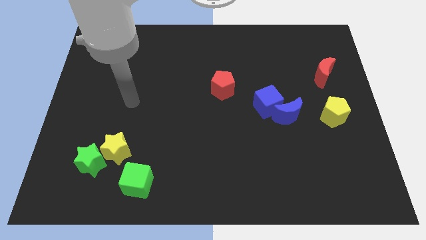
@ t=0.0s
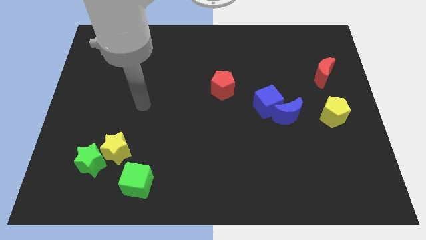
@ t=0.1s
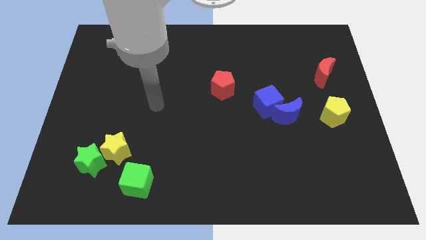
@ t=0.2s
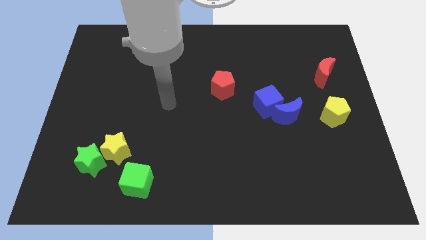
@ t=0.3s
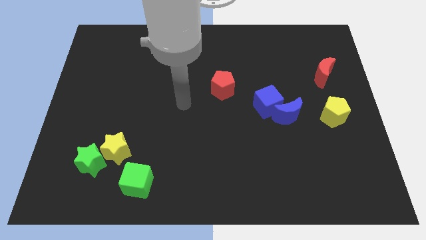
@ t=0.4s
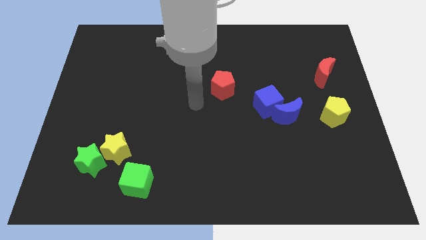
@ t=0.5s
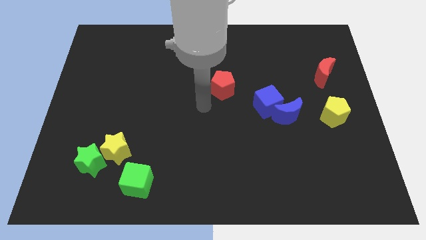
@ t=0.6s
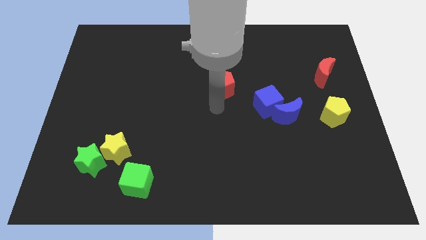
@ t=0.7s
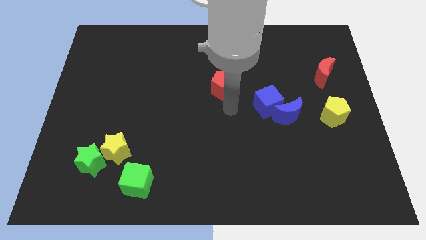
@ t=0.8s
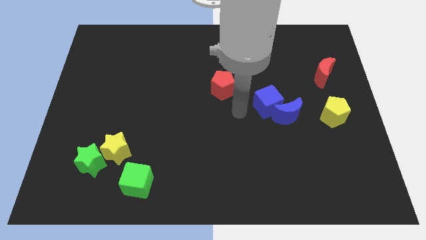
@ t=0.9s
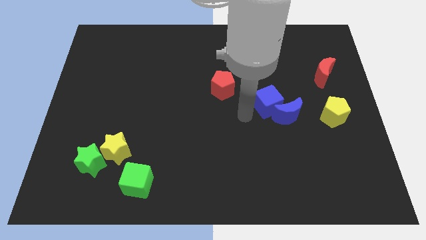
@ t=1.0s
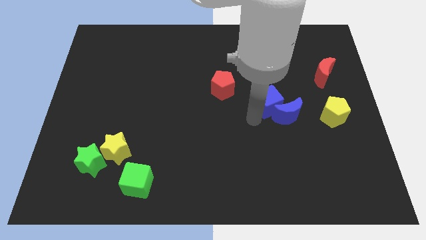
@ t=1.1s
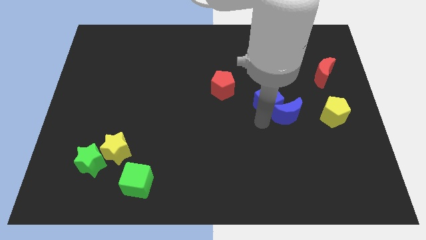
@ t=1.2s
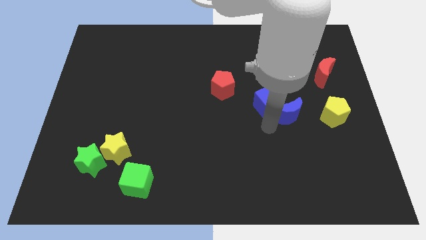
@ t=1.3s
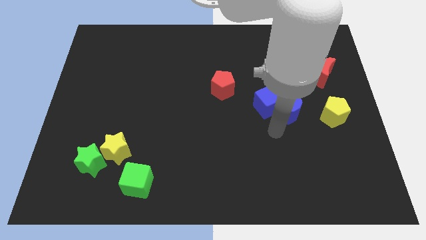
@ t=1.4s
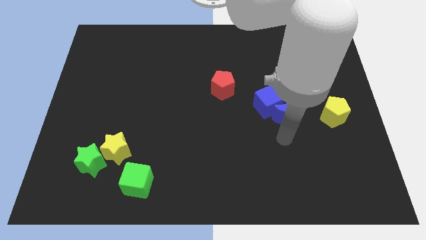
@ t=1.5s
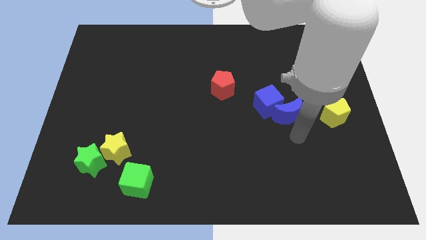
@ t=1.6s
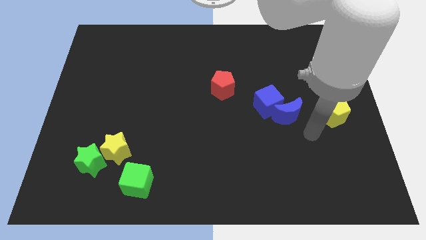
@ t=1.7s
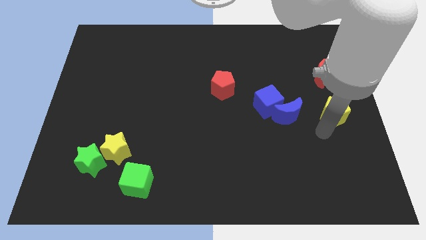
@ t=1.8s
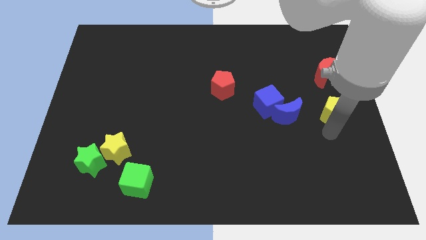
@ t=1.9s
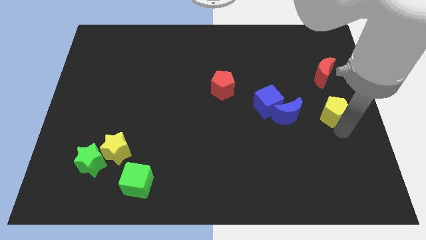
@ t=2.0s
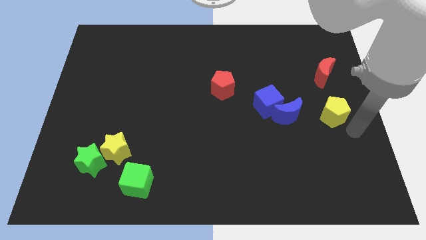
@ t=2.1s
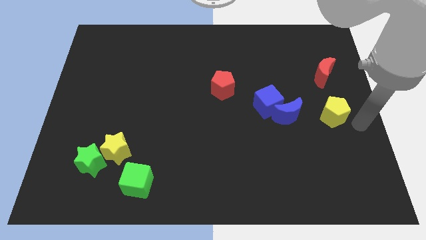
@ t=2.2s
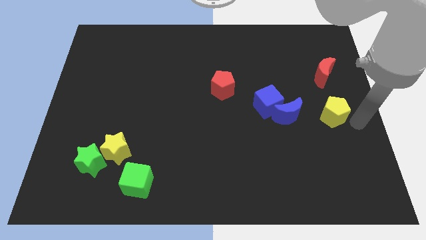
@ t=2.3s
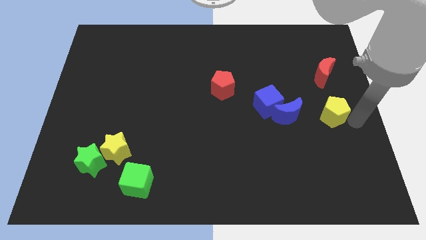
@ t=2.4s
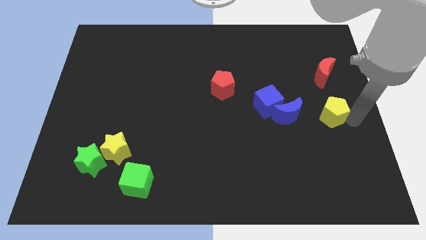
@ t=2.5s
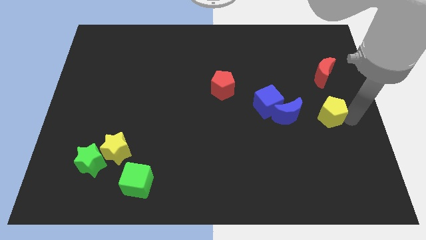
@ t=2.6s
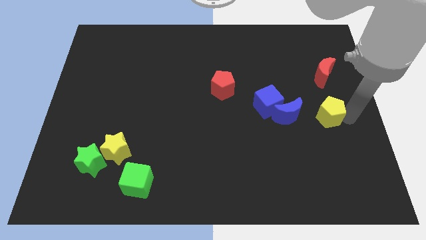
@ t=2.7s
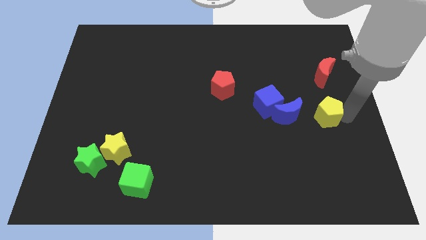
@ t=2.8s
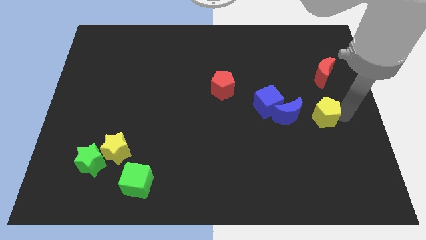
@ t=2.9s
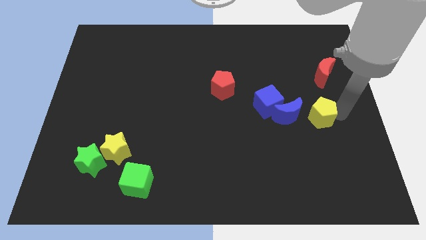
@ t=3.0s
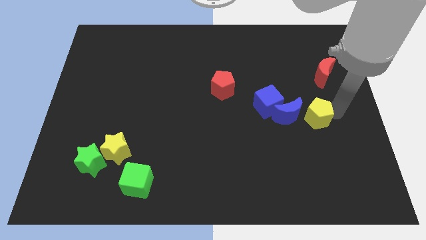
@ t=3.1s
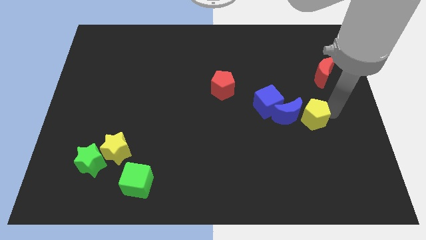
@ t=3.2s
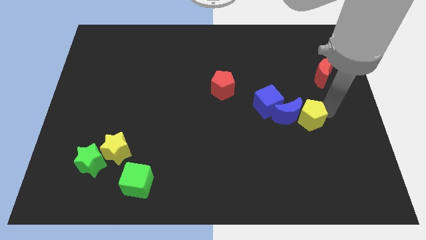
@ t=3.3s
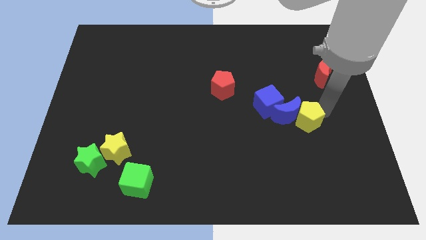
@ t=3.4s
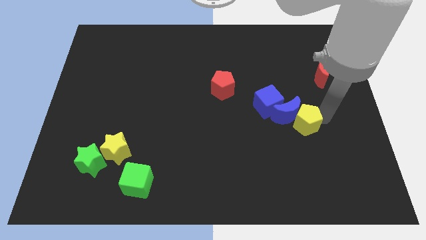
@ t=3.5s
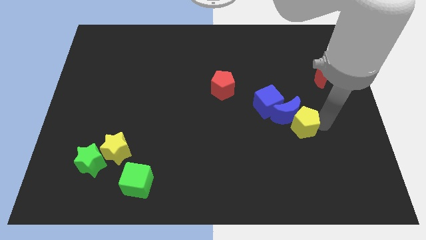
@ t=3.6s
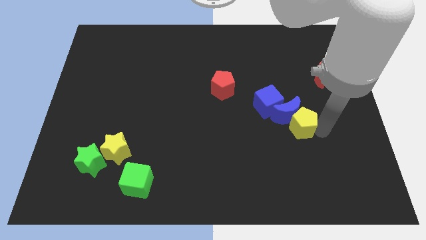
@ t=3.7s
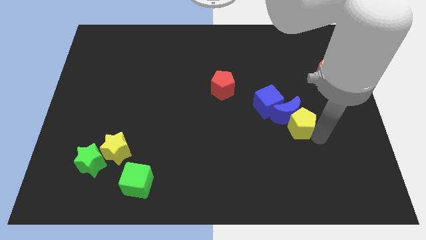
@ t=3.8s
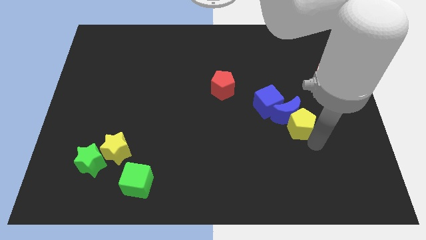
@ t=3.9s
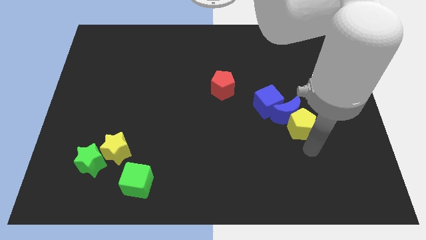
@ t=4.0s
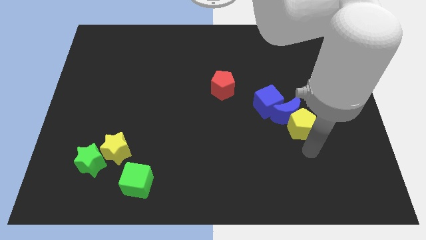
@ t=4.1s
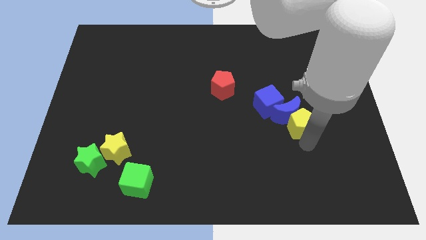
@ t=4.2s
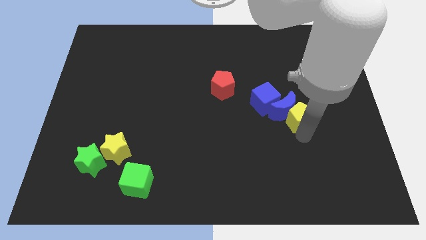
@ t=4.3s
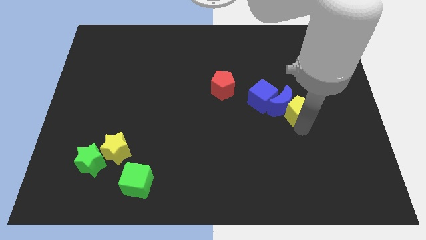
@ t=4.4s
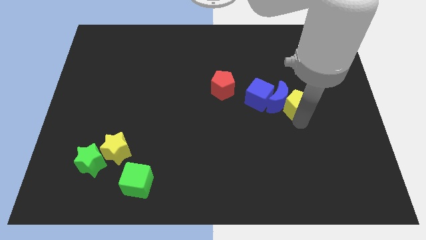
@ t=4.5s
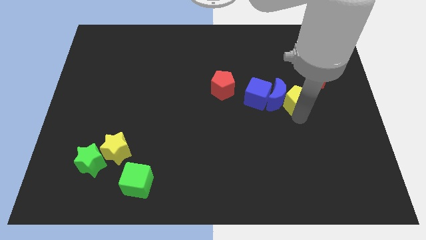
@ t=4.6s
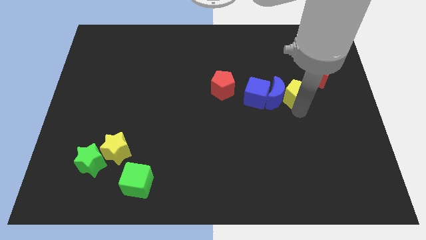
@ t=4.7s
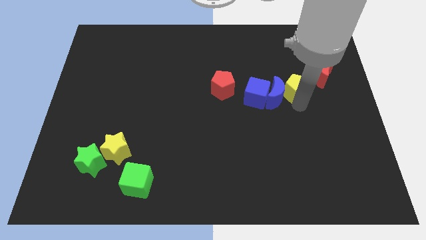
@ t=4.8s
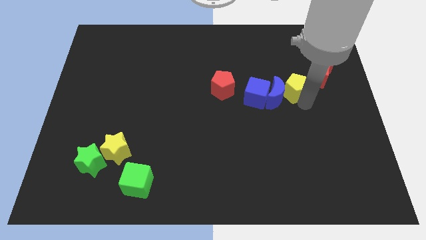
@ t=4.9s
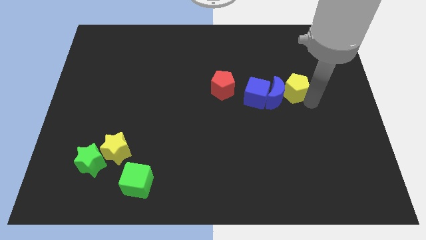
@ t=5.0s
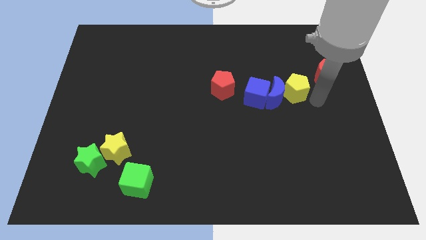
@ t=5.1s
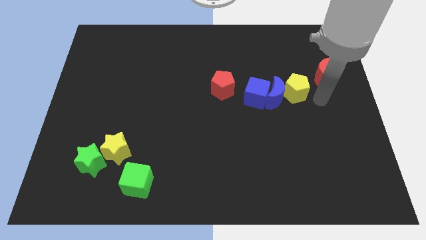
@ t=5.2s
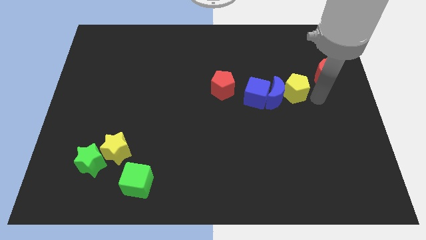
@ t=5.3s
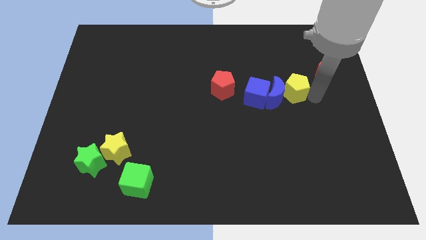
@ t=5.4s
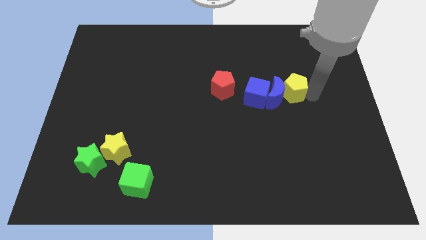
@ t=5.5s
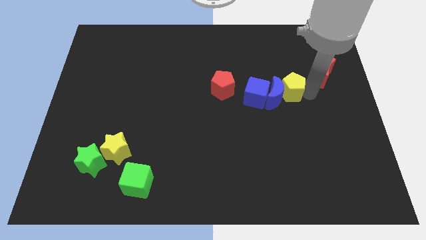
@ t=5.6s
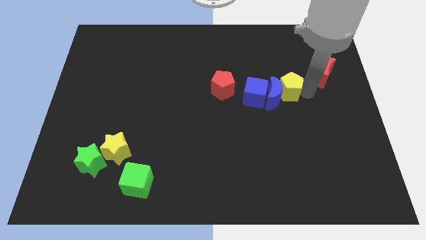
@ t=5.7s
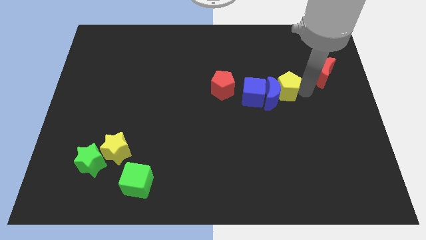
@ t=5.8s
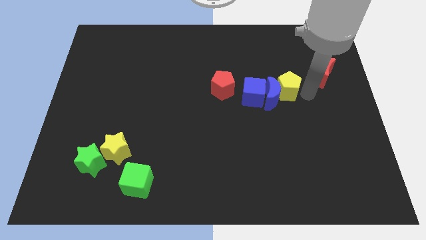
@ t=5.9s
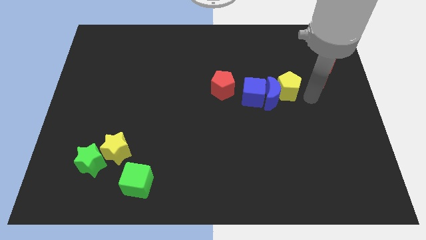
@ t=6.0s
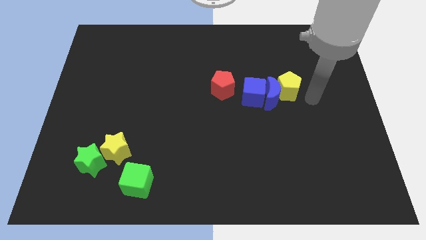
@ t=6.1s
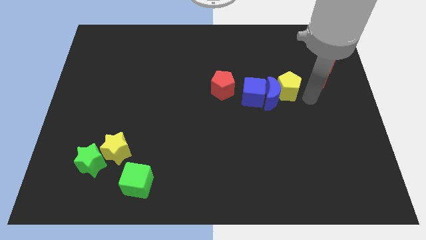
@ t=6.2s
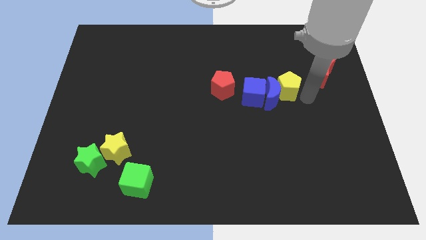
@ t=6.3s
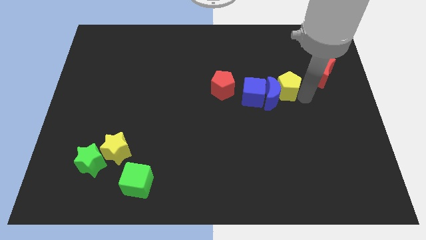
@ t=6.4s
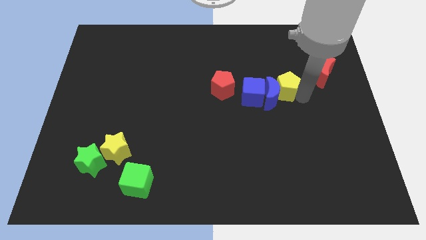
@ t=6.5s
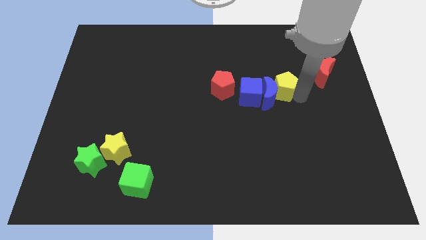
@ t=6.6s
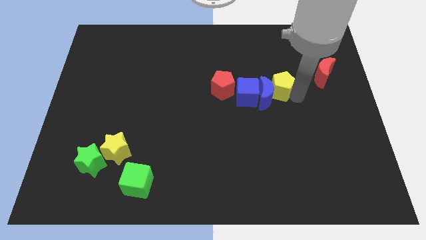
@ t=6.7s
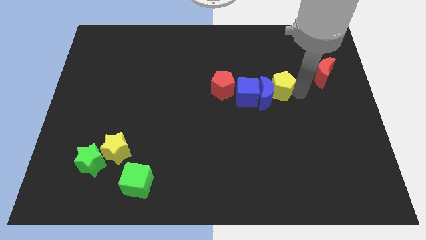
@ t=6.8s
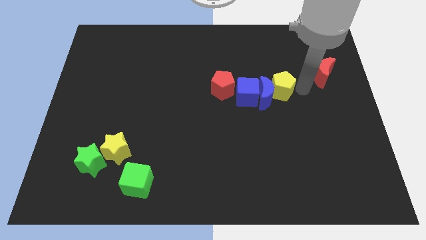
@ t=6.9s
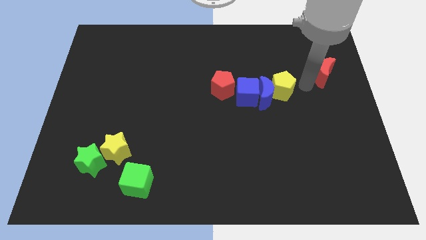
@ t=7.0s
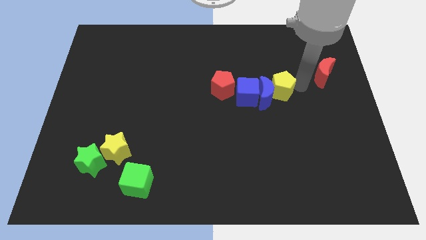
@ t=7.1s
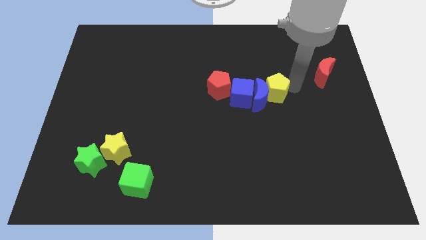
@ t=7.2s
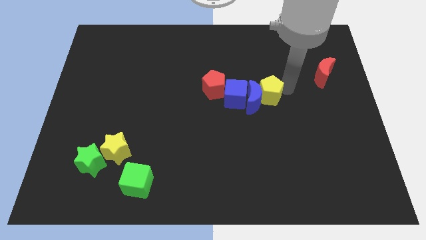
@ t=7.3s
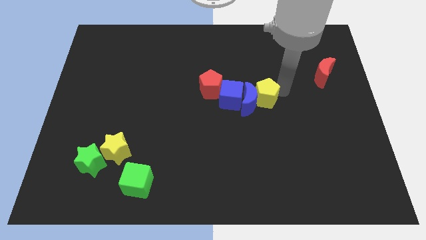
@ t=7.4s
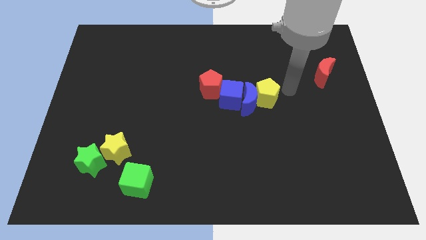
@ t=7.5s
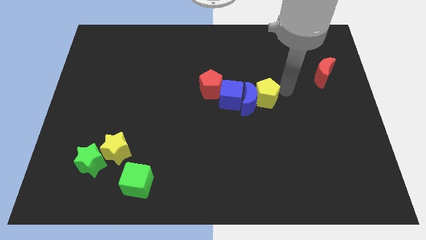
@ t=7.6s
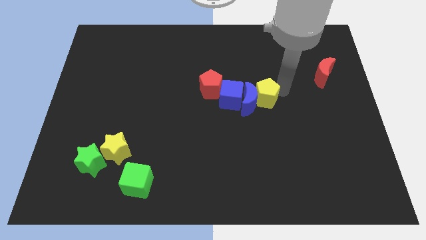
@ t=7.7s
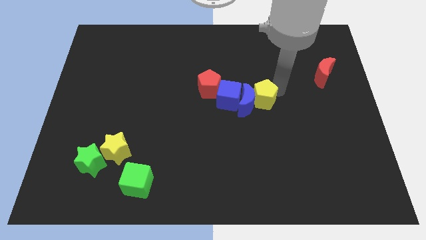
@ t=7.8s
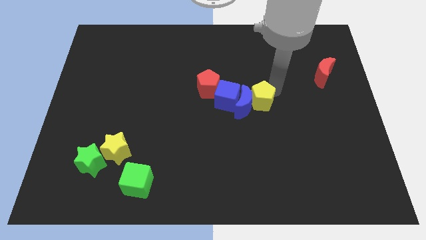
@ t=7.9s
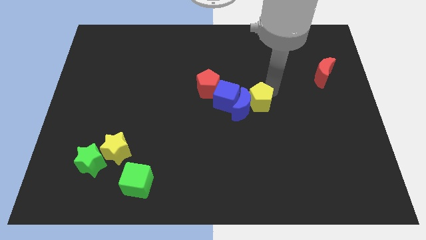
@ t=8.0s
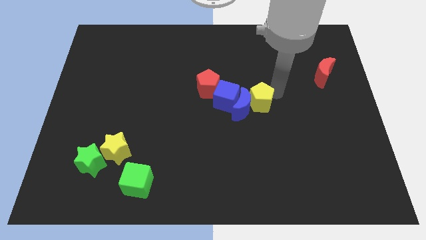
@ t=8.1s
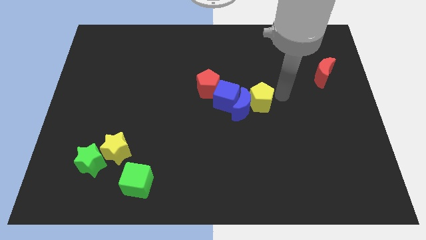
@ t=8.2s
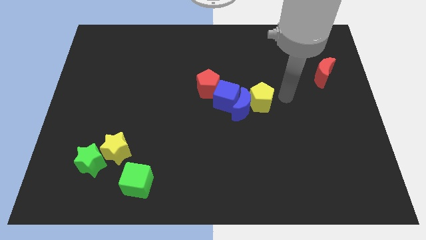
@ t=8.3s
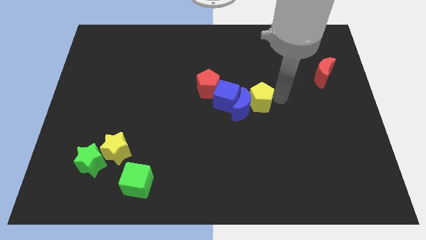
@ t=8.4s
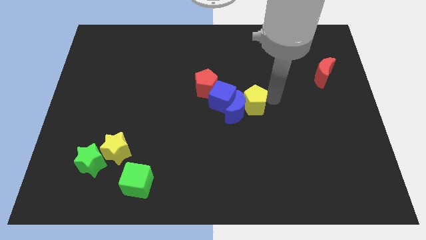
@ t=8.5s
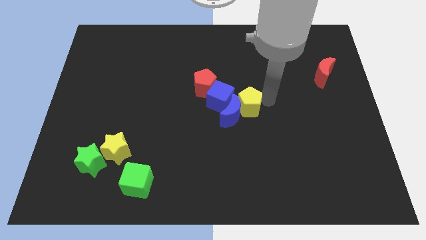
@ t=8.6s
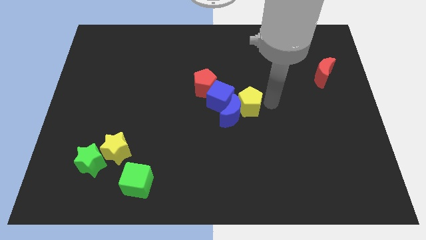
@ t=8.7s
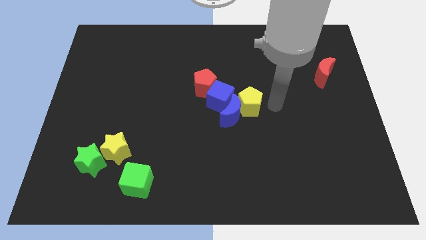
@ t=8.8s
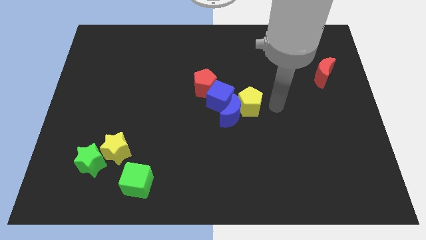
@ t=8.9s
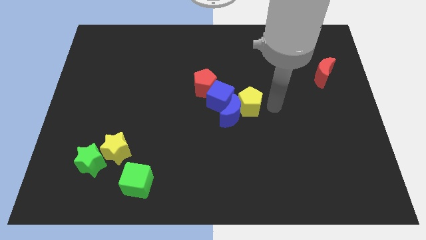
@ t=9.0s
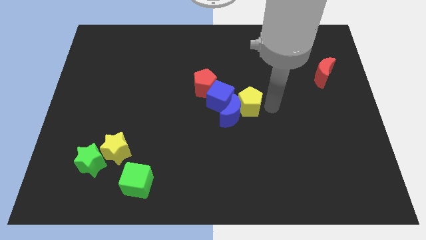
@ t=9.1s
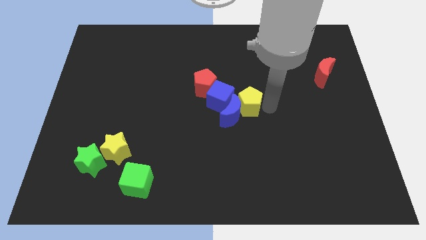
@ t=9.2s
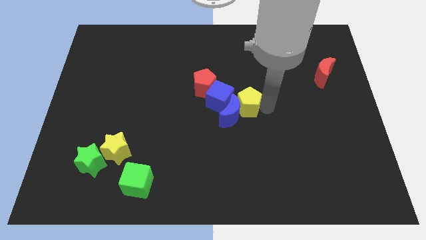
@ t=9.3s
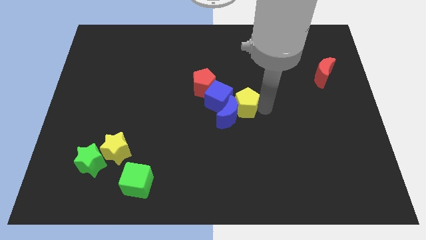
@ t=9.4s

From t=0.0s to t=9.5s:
push the yellow pentagon left
